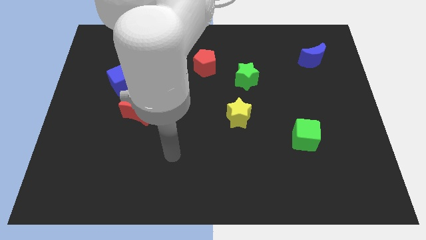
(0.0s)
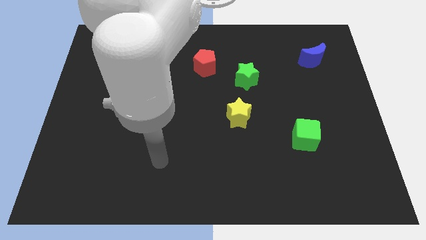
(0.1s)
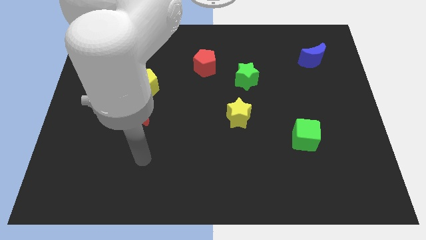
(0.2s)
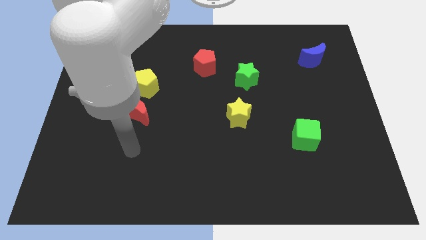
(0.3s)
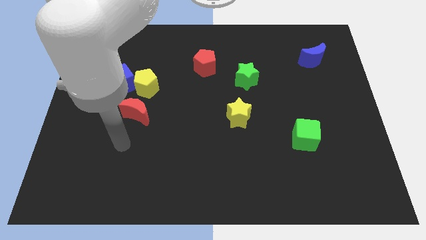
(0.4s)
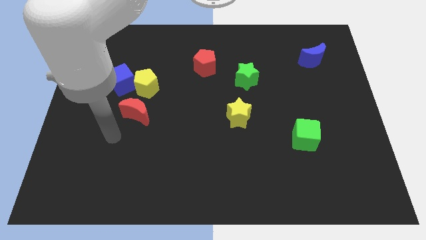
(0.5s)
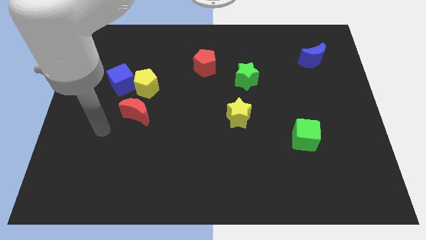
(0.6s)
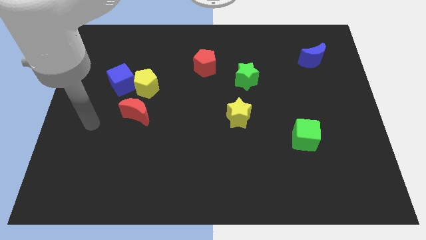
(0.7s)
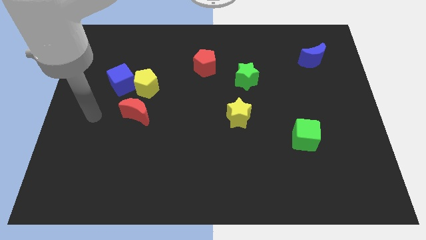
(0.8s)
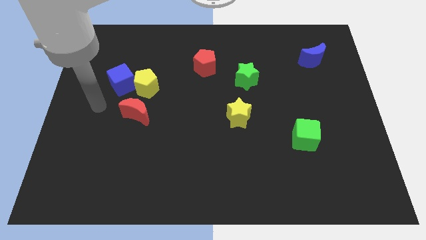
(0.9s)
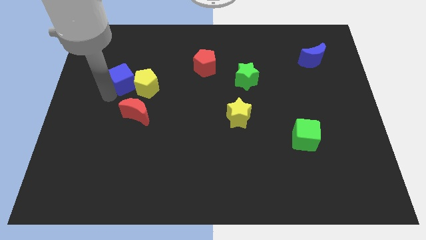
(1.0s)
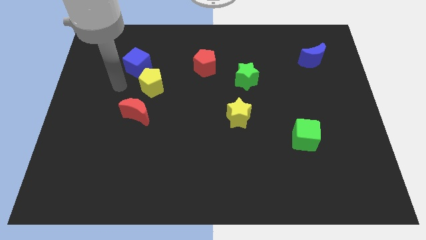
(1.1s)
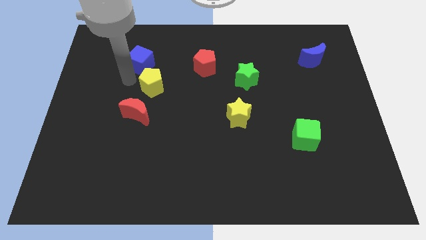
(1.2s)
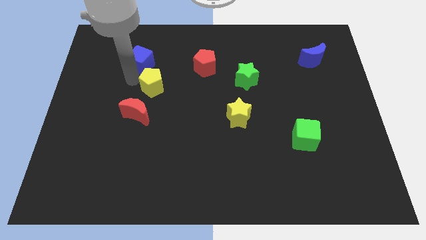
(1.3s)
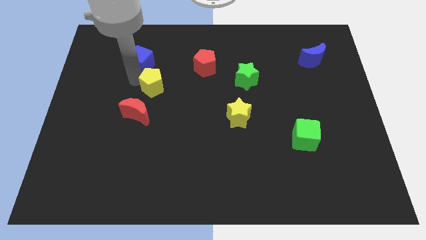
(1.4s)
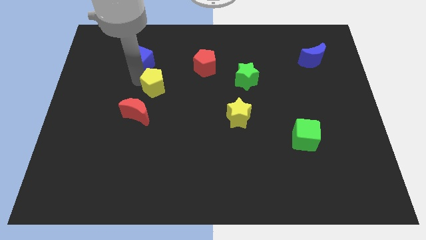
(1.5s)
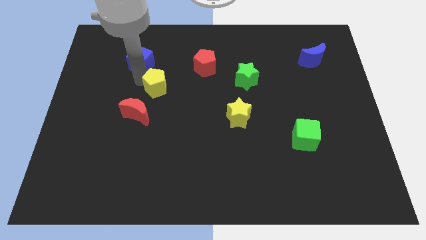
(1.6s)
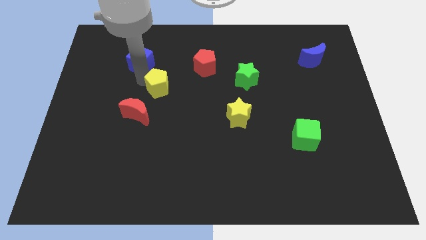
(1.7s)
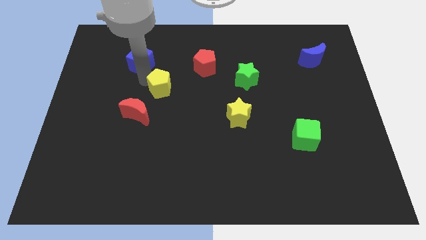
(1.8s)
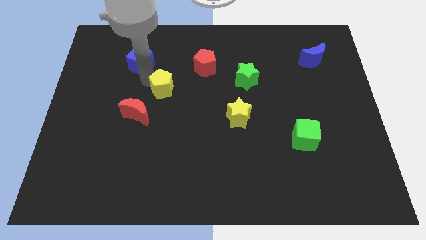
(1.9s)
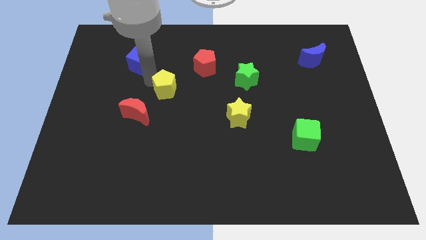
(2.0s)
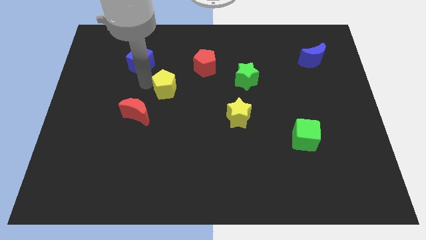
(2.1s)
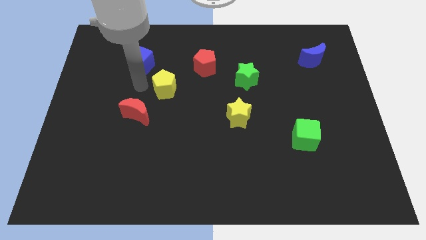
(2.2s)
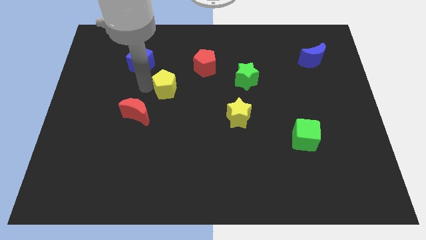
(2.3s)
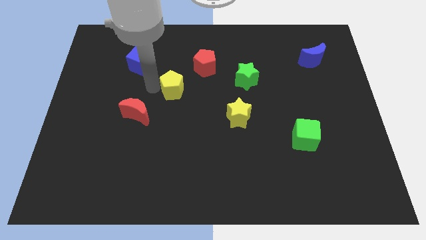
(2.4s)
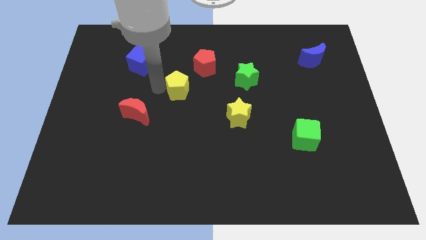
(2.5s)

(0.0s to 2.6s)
move the yellow pentagon a little bit right

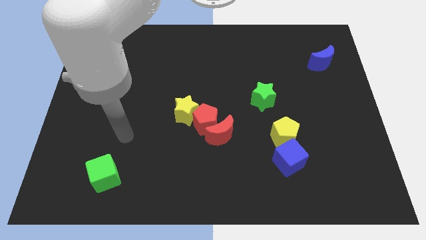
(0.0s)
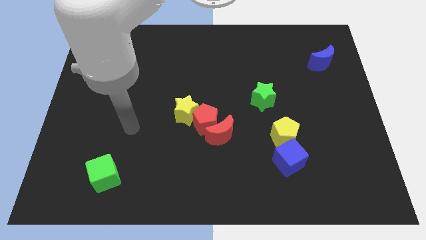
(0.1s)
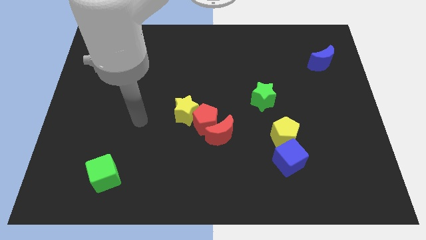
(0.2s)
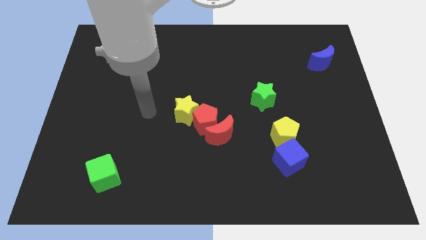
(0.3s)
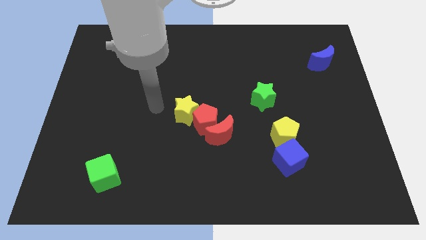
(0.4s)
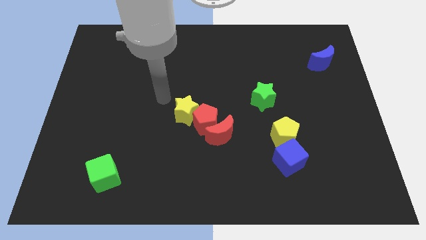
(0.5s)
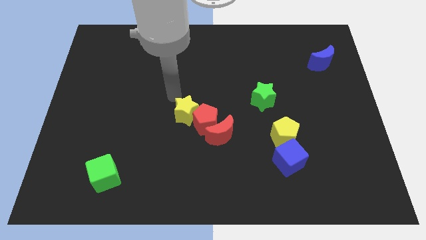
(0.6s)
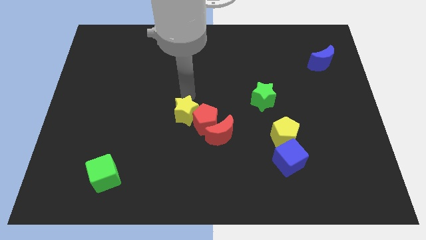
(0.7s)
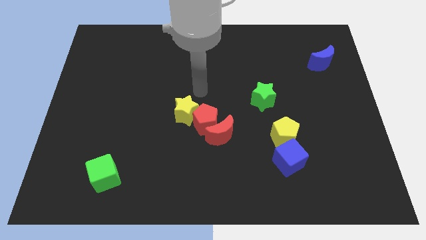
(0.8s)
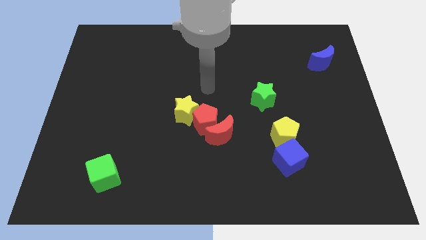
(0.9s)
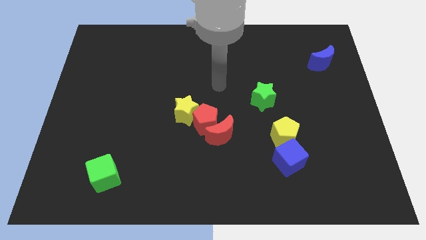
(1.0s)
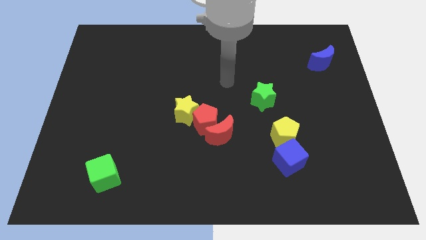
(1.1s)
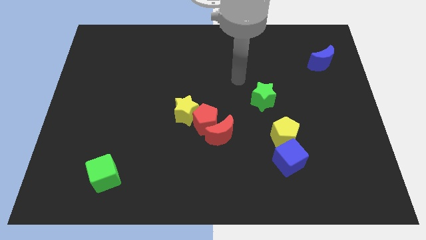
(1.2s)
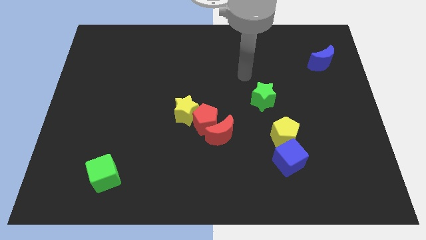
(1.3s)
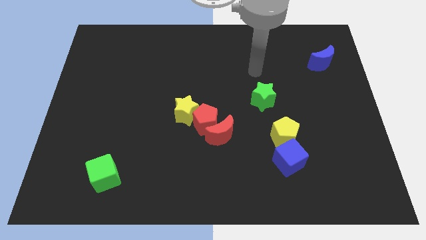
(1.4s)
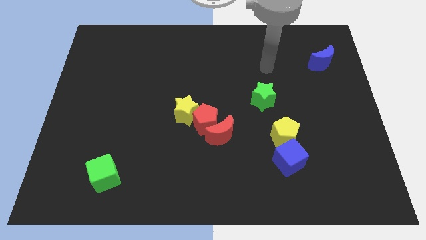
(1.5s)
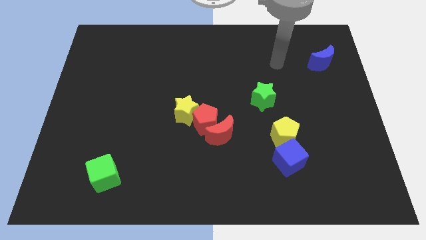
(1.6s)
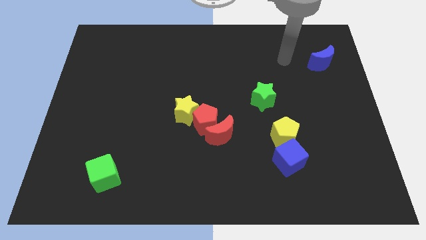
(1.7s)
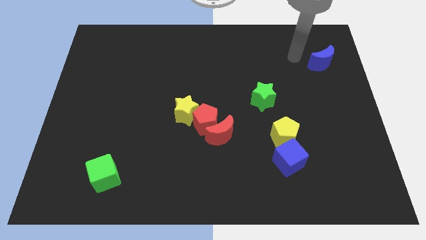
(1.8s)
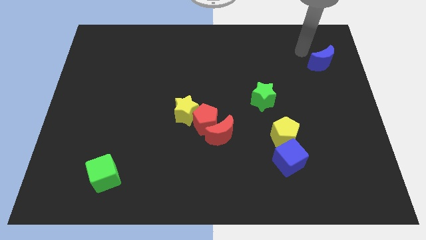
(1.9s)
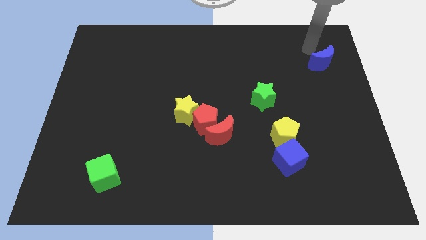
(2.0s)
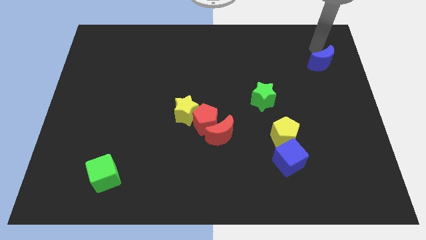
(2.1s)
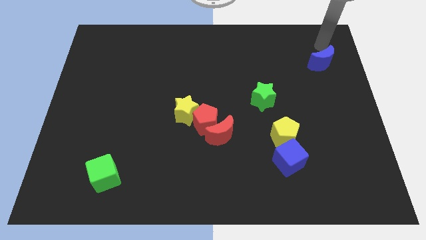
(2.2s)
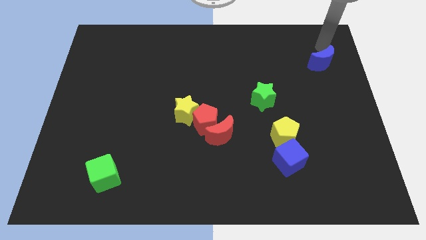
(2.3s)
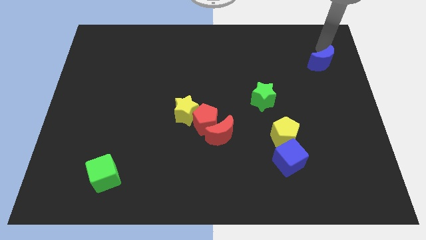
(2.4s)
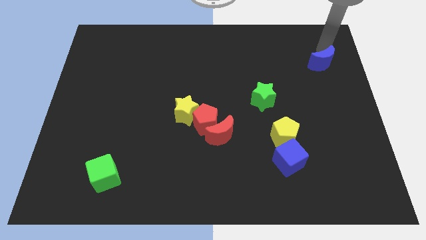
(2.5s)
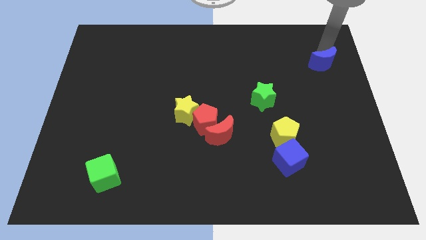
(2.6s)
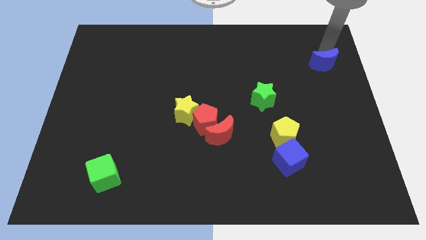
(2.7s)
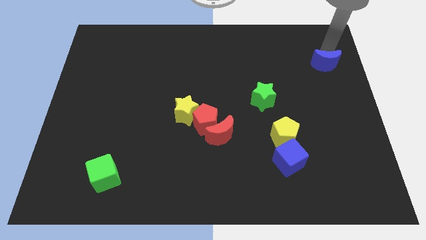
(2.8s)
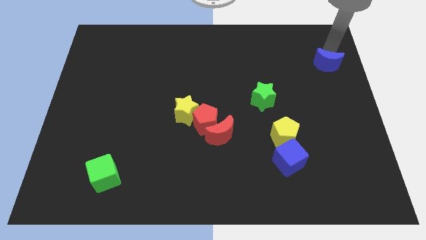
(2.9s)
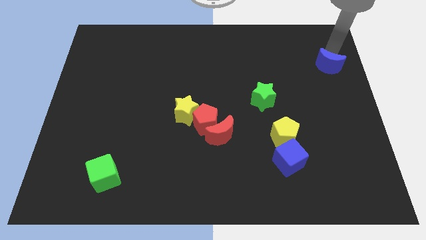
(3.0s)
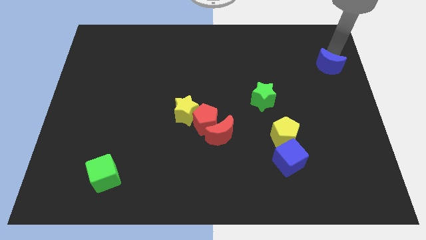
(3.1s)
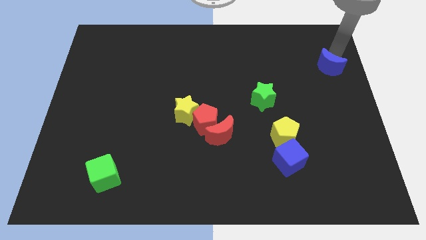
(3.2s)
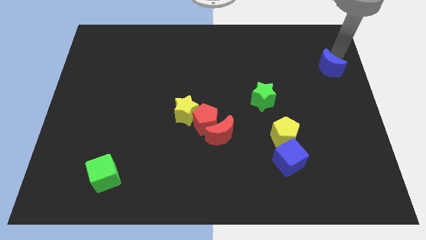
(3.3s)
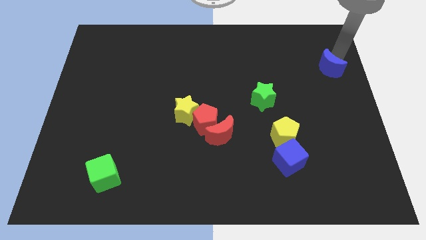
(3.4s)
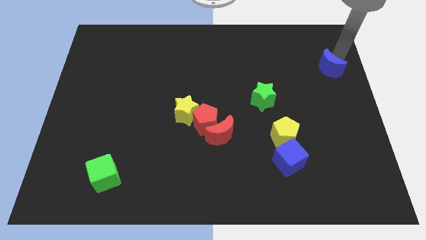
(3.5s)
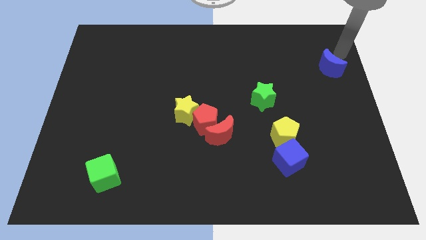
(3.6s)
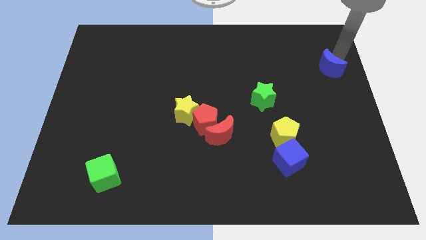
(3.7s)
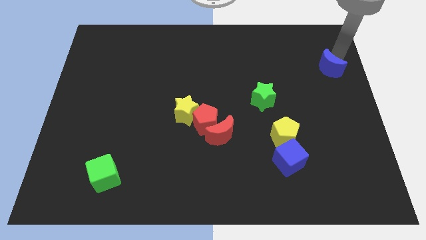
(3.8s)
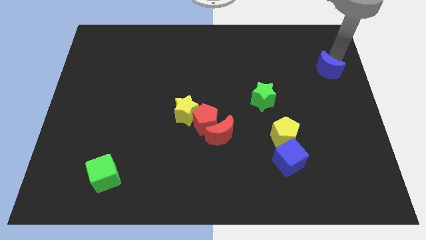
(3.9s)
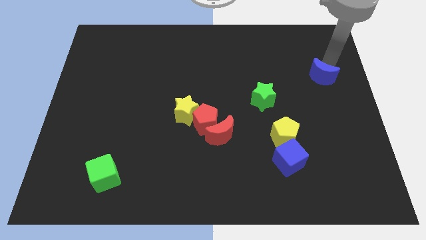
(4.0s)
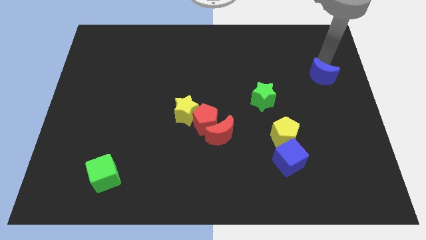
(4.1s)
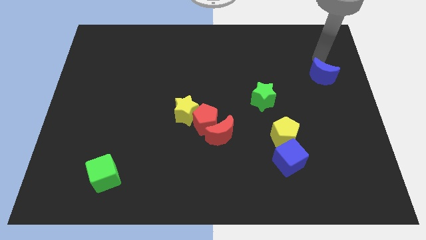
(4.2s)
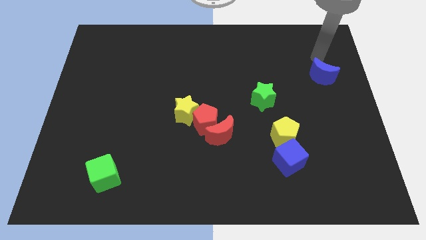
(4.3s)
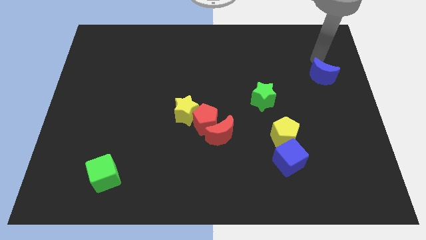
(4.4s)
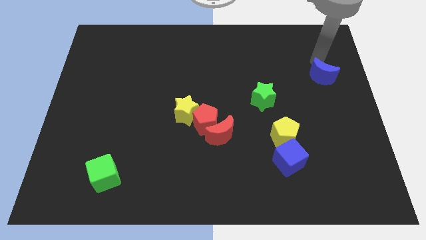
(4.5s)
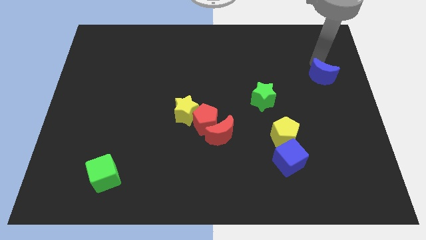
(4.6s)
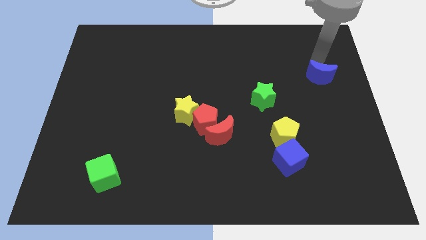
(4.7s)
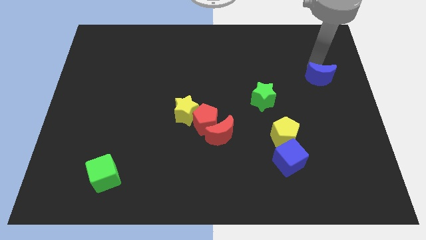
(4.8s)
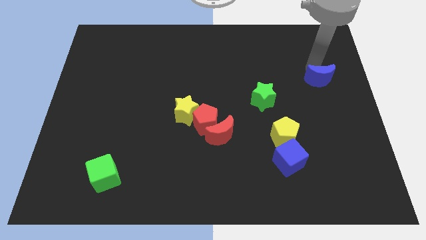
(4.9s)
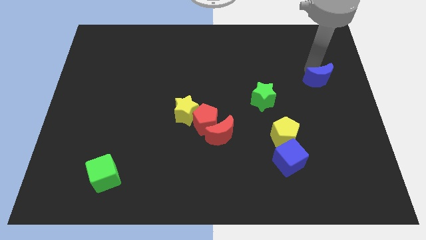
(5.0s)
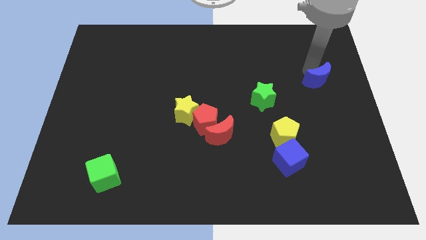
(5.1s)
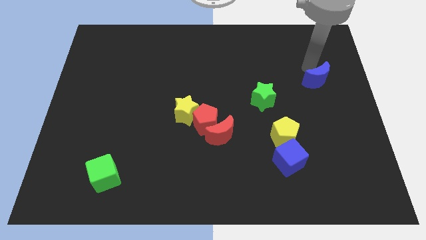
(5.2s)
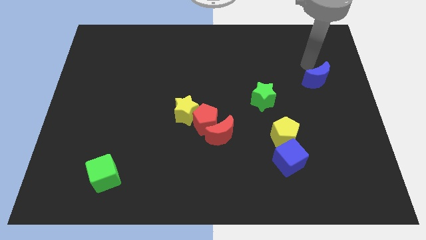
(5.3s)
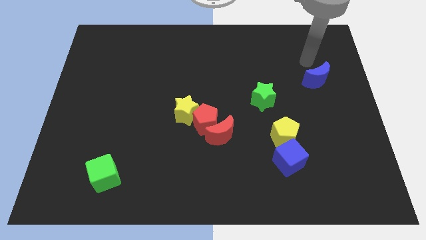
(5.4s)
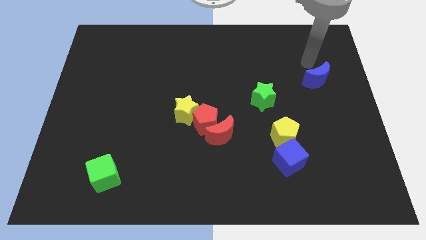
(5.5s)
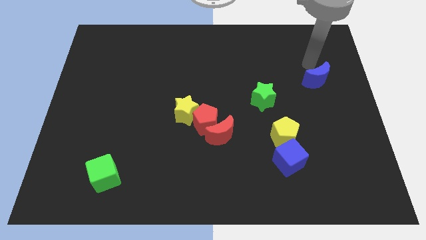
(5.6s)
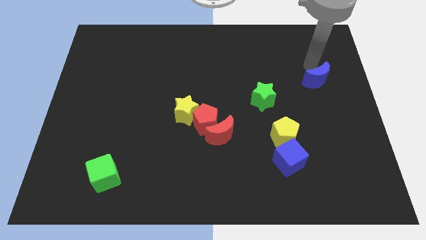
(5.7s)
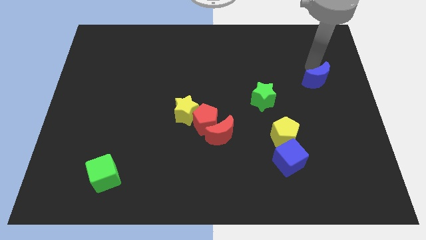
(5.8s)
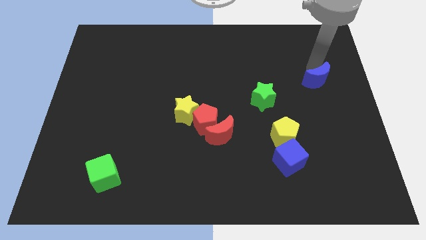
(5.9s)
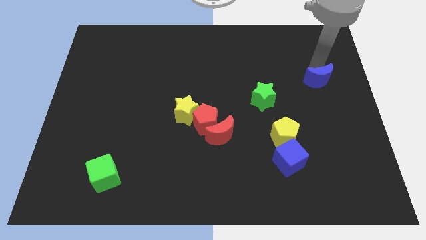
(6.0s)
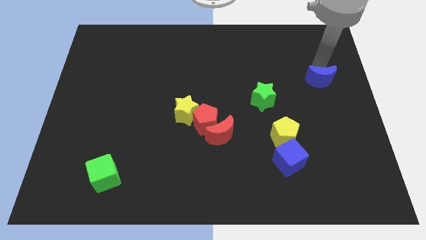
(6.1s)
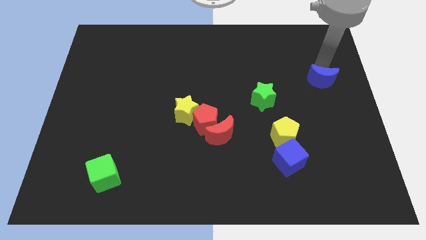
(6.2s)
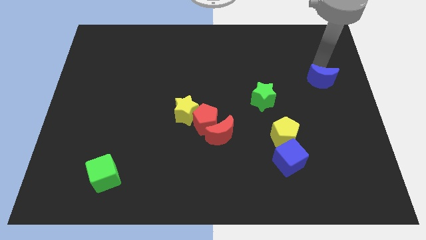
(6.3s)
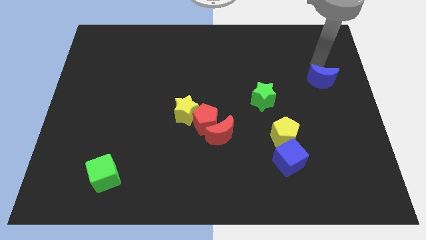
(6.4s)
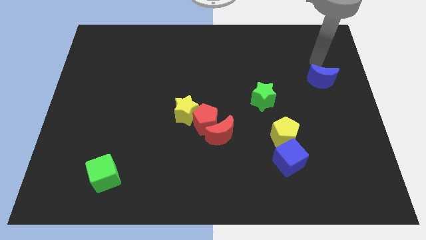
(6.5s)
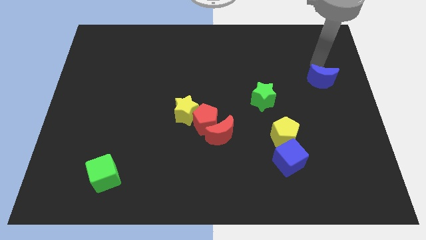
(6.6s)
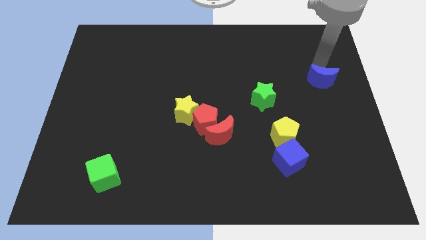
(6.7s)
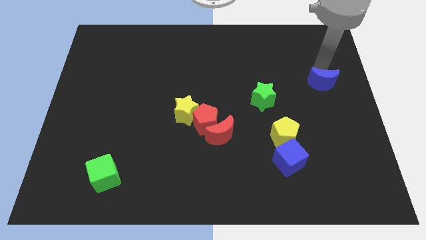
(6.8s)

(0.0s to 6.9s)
slightly move the blue moon downwards
